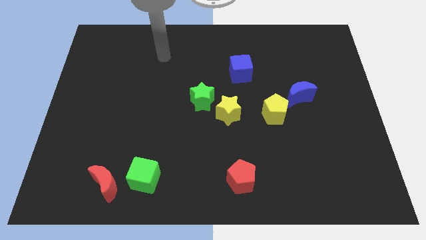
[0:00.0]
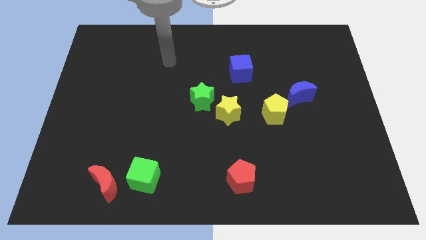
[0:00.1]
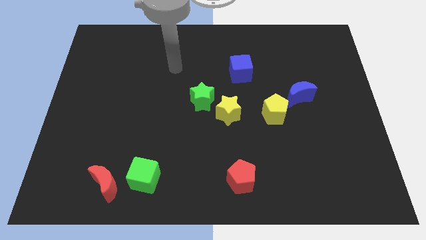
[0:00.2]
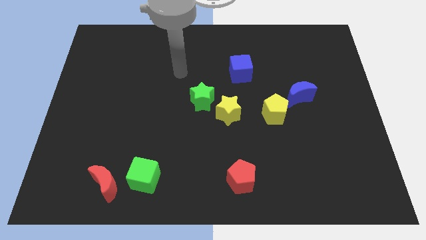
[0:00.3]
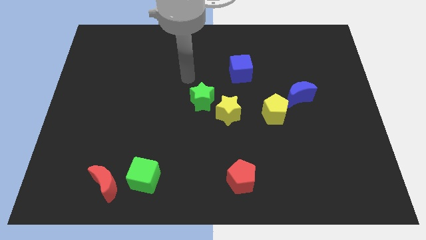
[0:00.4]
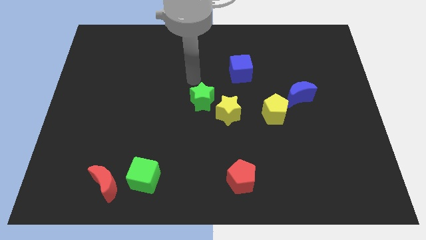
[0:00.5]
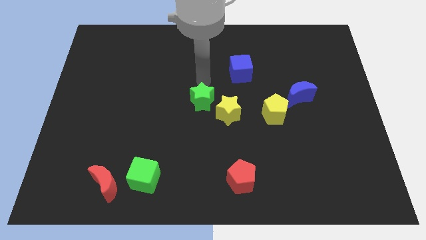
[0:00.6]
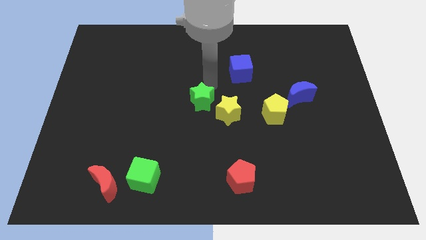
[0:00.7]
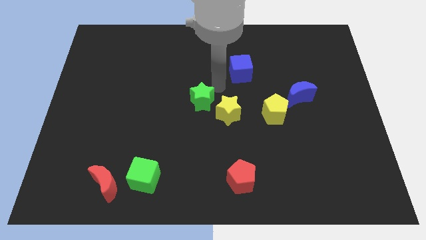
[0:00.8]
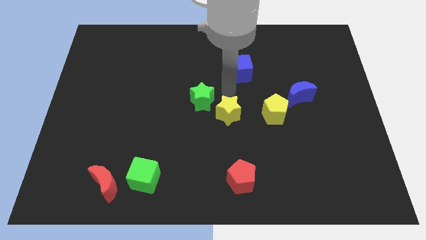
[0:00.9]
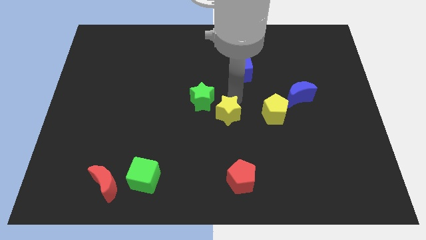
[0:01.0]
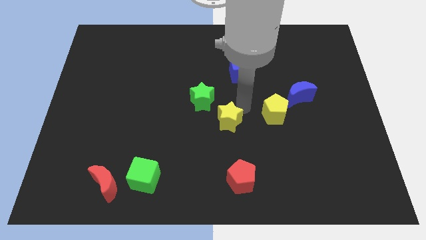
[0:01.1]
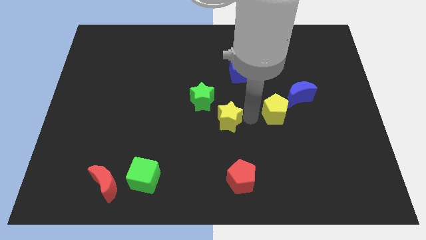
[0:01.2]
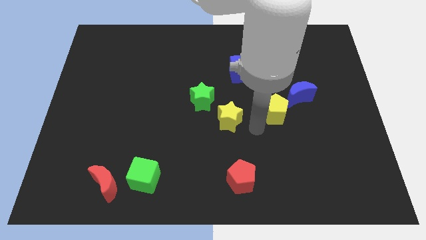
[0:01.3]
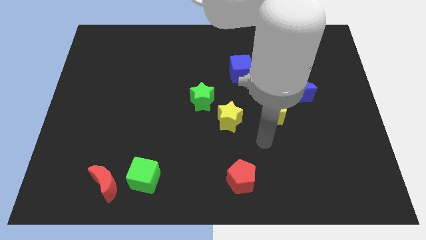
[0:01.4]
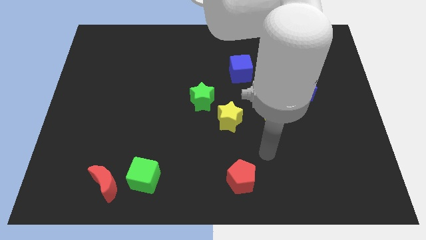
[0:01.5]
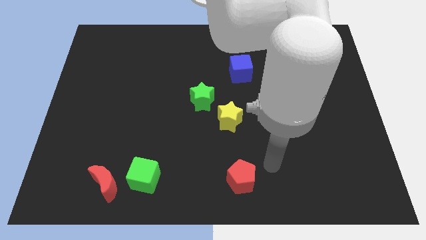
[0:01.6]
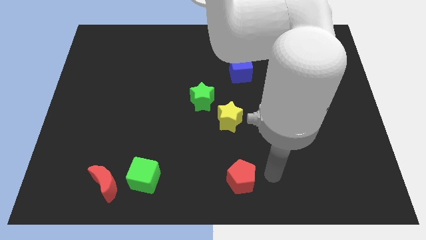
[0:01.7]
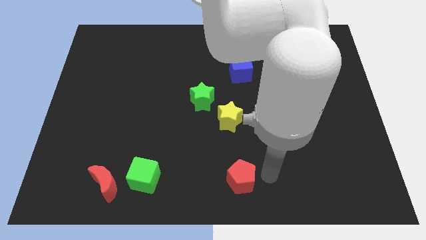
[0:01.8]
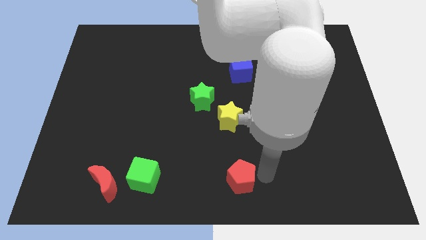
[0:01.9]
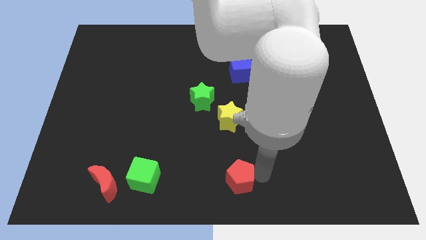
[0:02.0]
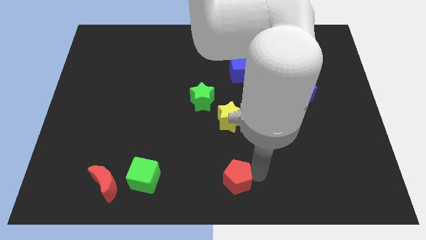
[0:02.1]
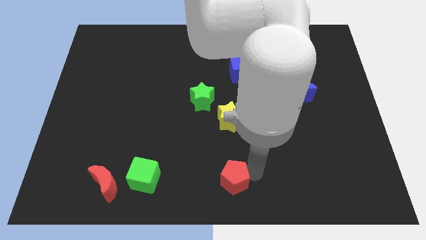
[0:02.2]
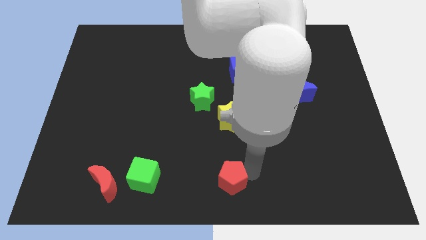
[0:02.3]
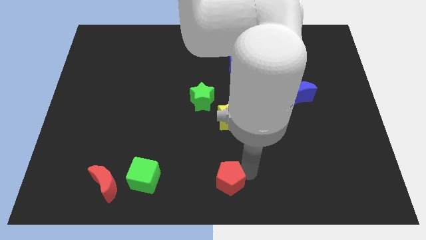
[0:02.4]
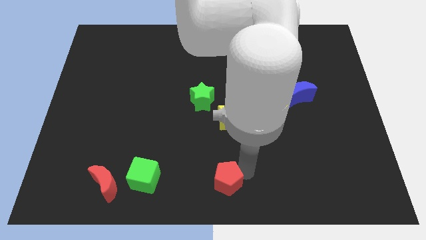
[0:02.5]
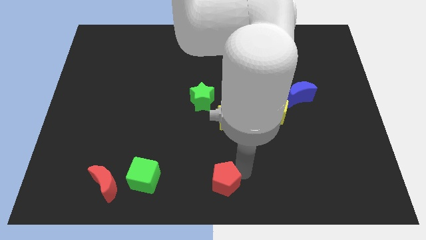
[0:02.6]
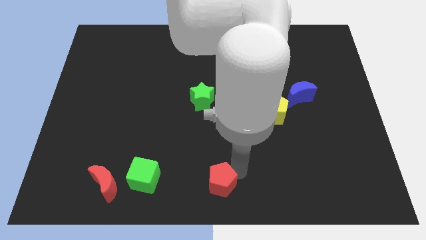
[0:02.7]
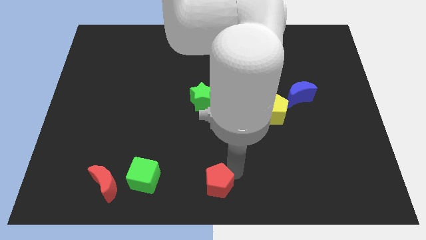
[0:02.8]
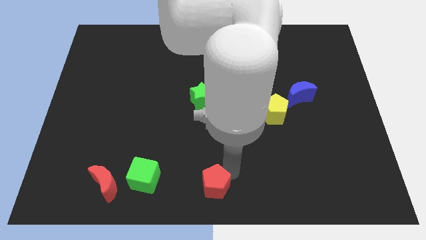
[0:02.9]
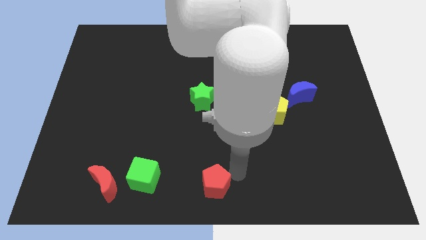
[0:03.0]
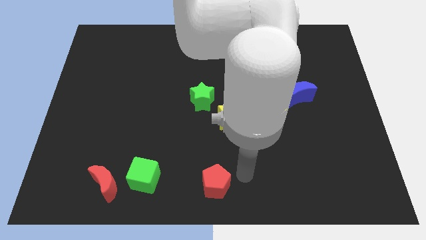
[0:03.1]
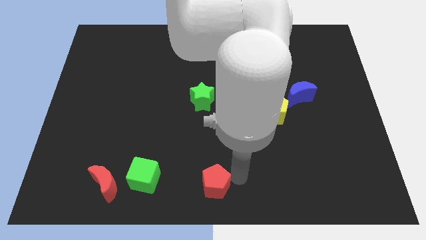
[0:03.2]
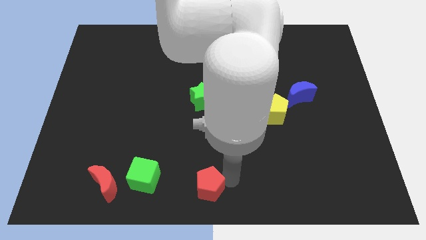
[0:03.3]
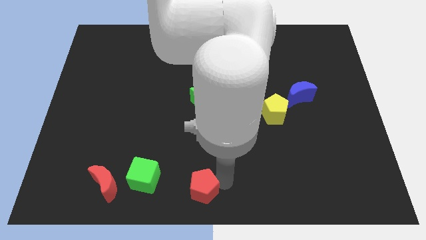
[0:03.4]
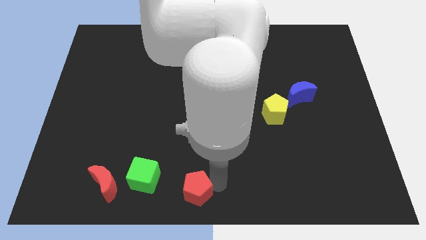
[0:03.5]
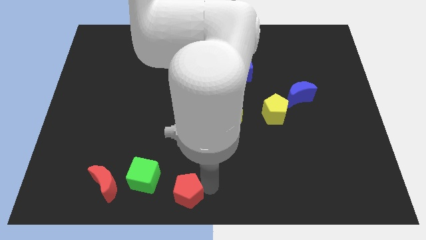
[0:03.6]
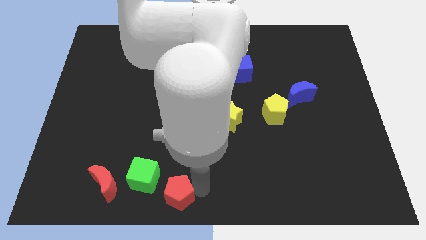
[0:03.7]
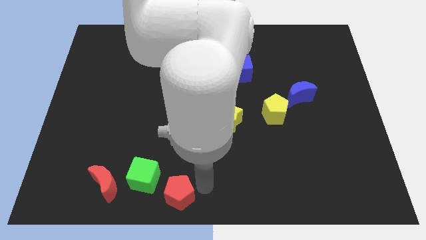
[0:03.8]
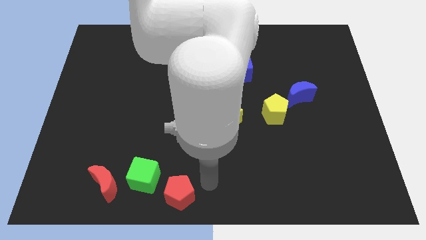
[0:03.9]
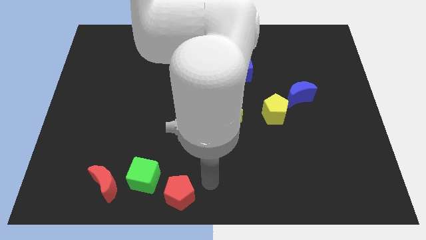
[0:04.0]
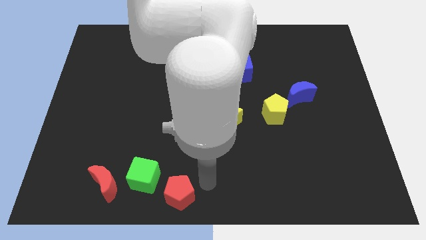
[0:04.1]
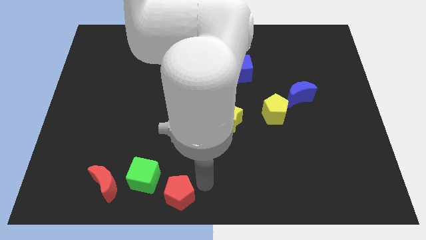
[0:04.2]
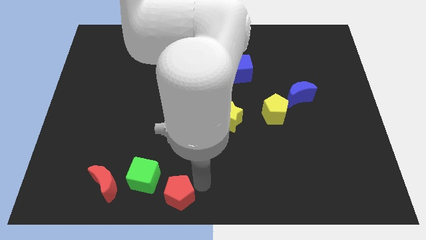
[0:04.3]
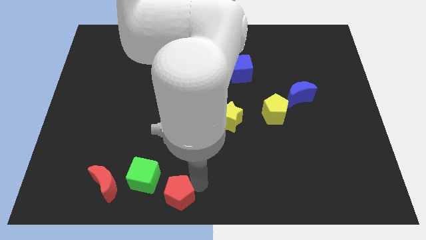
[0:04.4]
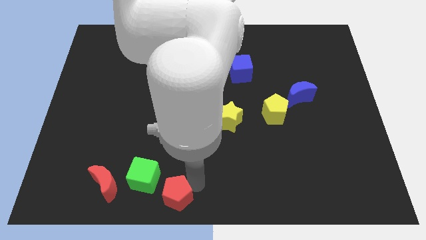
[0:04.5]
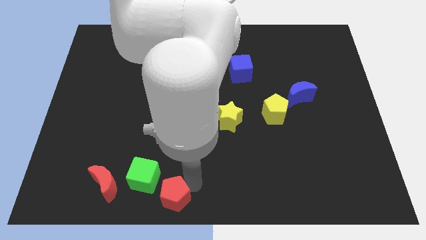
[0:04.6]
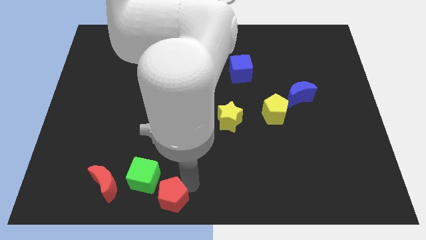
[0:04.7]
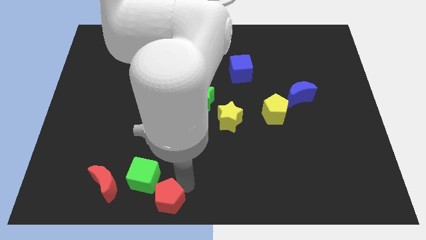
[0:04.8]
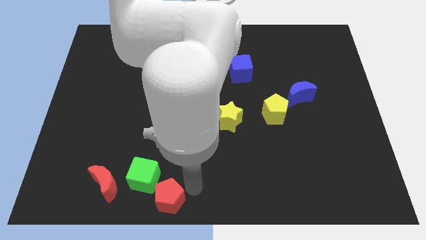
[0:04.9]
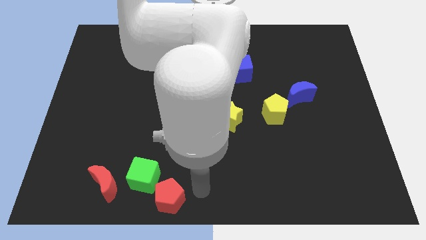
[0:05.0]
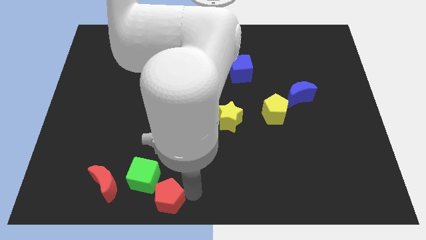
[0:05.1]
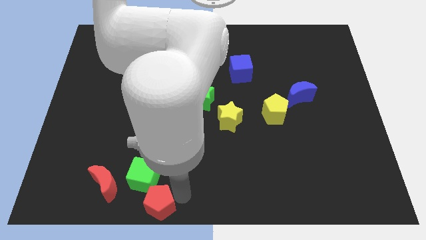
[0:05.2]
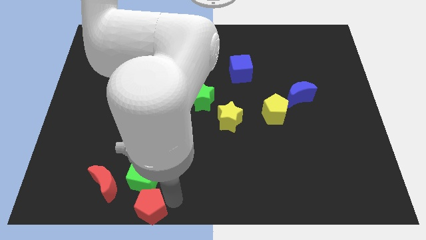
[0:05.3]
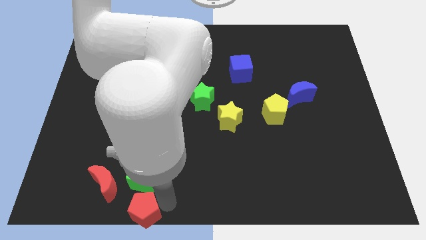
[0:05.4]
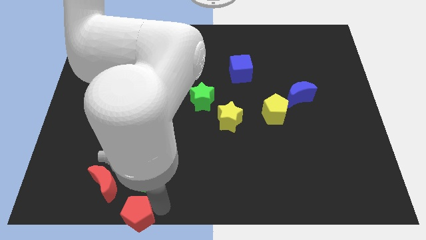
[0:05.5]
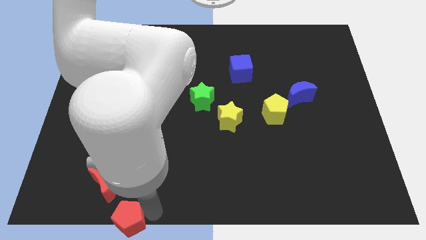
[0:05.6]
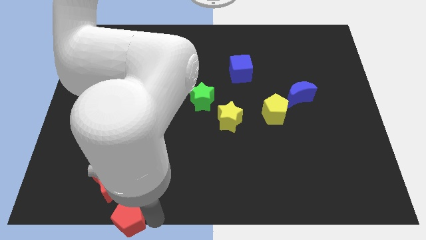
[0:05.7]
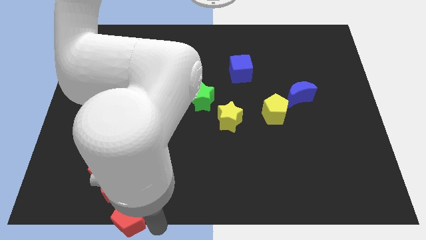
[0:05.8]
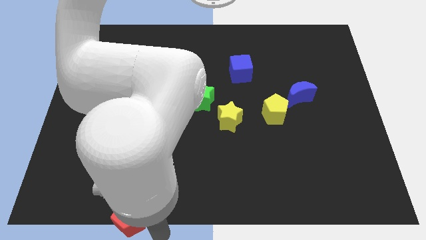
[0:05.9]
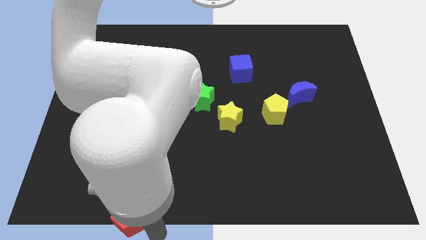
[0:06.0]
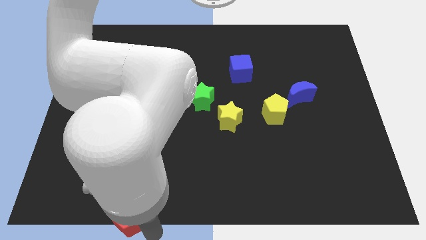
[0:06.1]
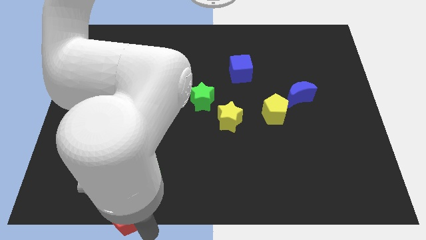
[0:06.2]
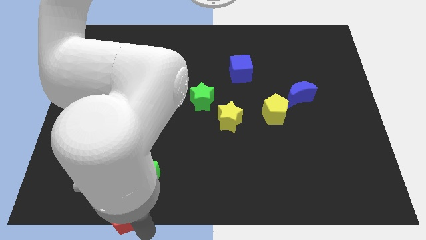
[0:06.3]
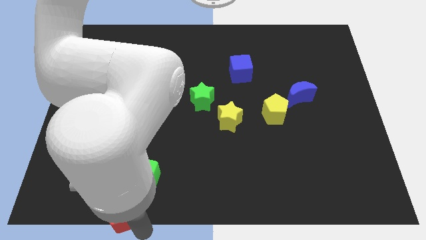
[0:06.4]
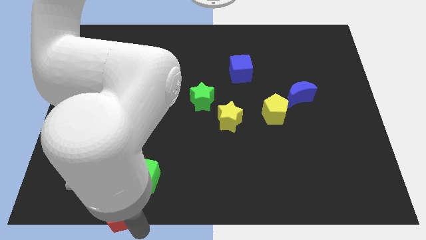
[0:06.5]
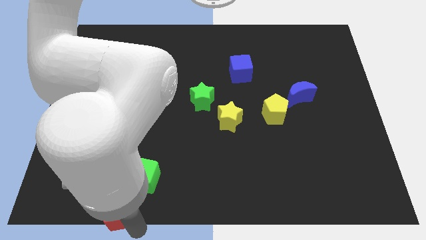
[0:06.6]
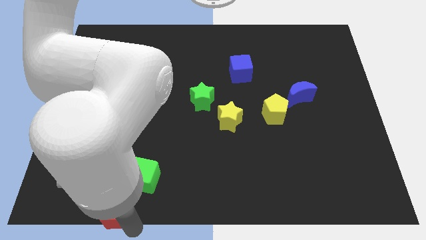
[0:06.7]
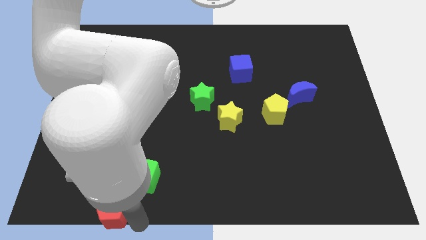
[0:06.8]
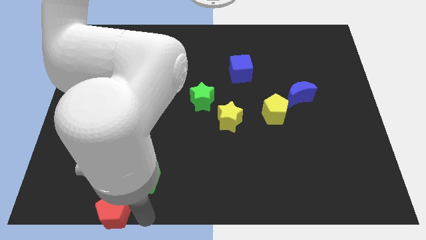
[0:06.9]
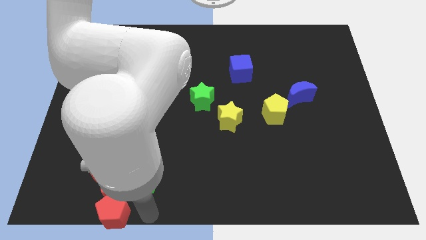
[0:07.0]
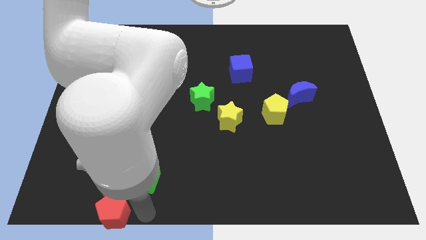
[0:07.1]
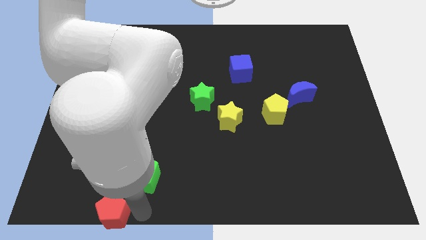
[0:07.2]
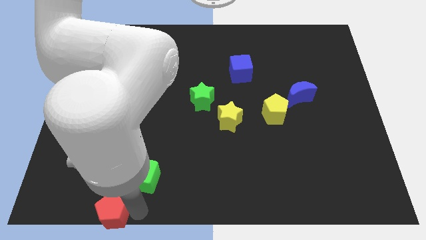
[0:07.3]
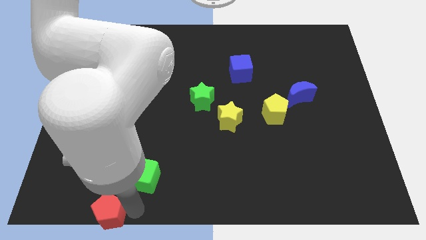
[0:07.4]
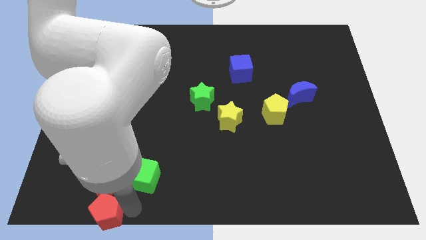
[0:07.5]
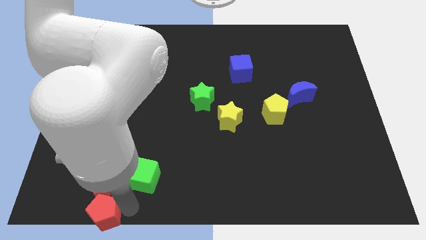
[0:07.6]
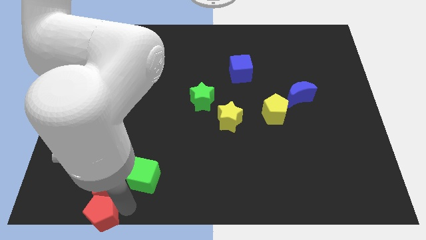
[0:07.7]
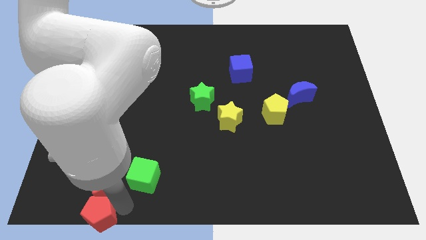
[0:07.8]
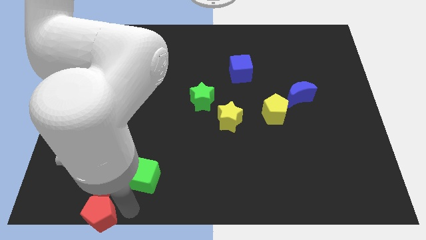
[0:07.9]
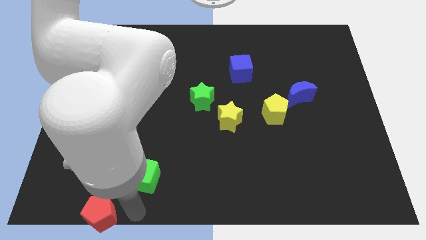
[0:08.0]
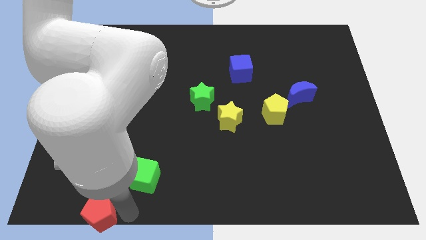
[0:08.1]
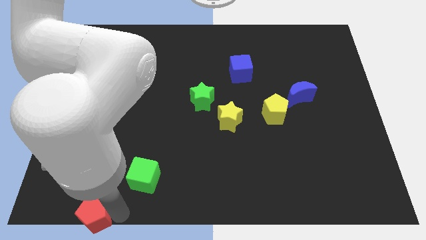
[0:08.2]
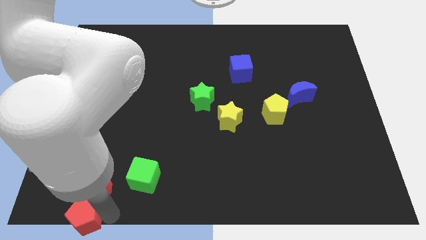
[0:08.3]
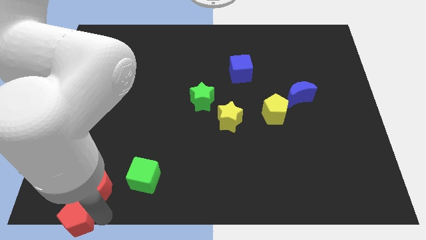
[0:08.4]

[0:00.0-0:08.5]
slide the red pentagon to the bottom left
